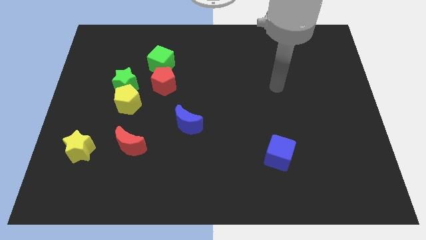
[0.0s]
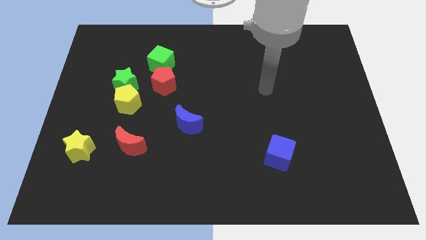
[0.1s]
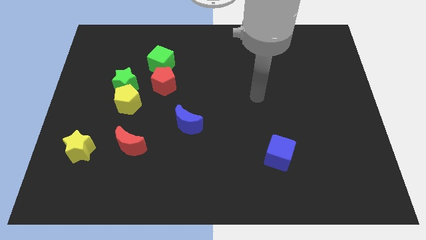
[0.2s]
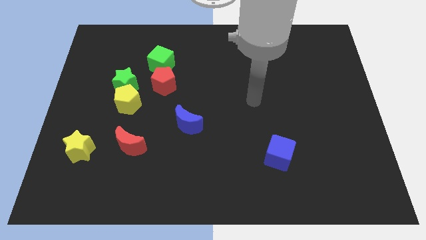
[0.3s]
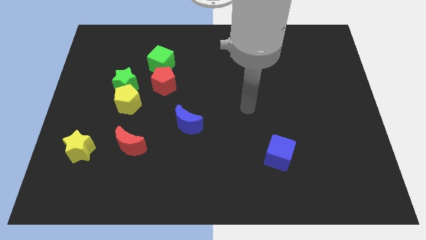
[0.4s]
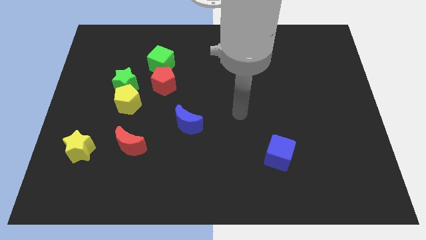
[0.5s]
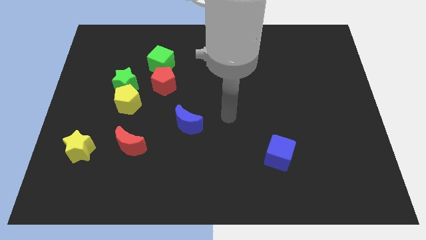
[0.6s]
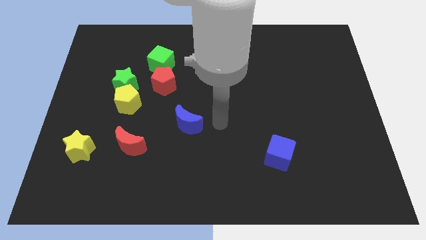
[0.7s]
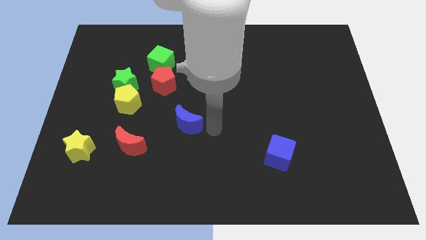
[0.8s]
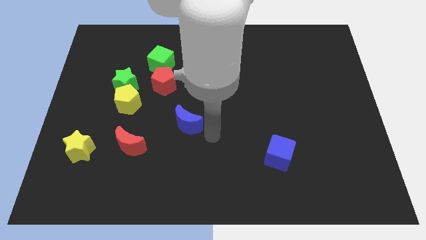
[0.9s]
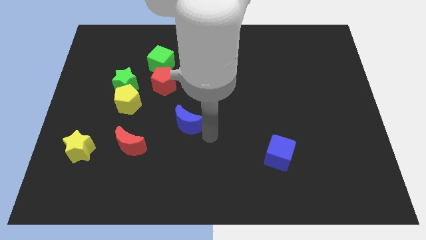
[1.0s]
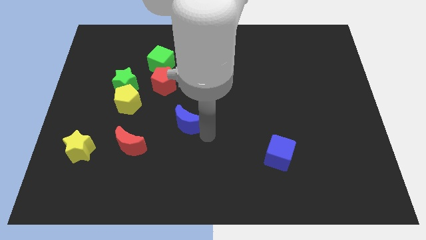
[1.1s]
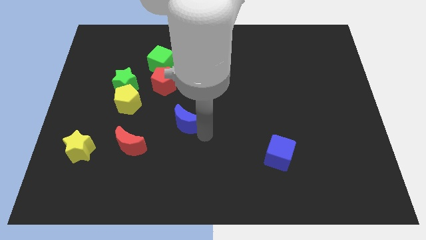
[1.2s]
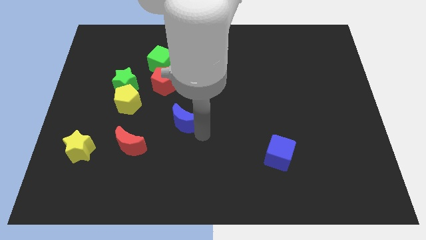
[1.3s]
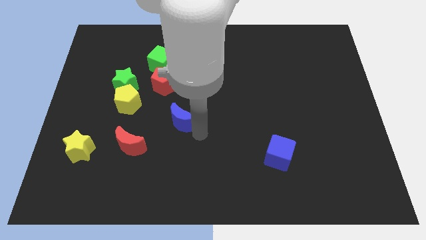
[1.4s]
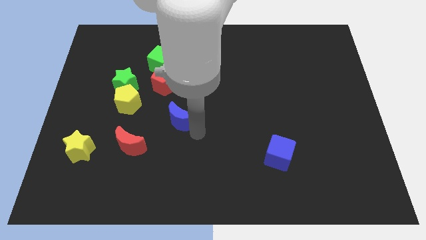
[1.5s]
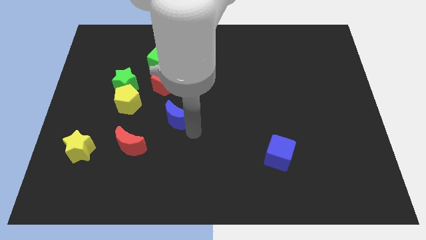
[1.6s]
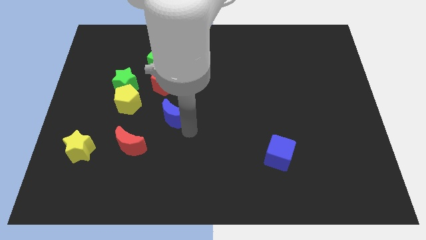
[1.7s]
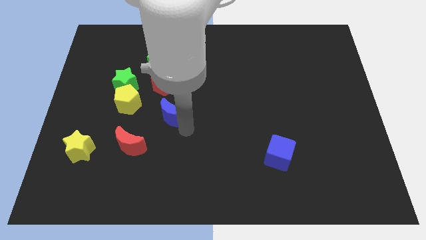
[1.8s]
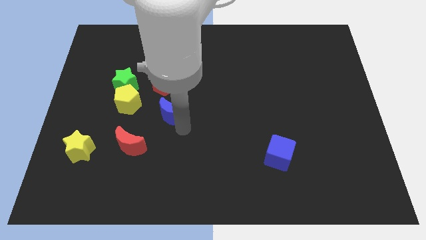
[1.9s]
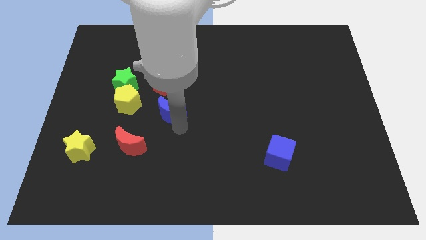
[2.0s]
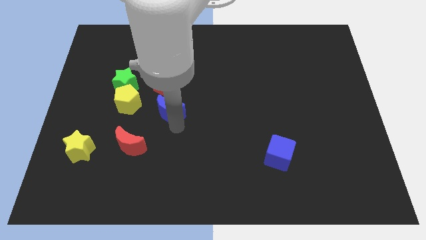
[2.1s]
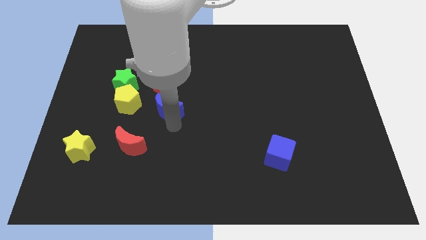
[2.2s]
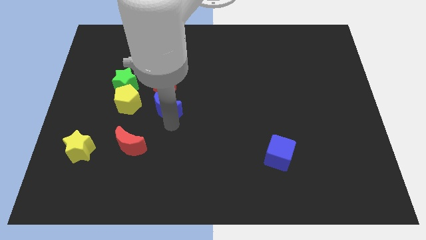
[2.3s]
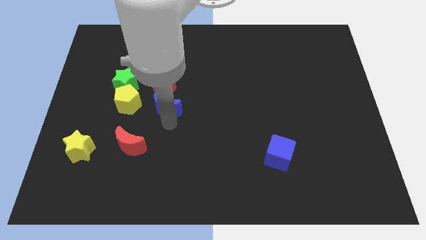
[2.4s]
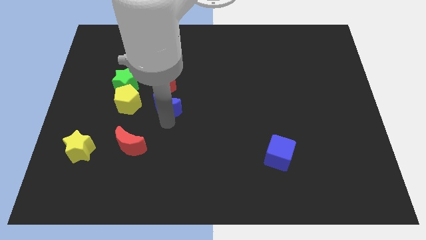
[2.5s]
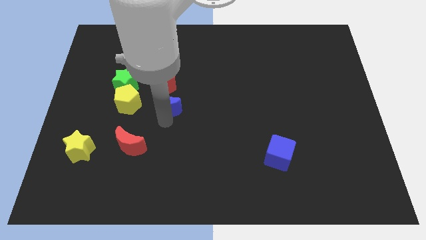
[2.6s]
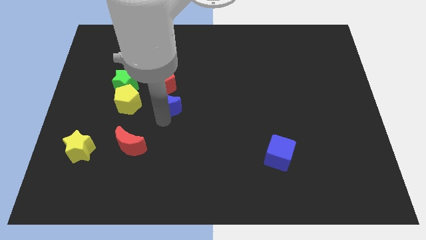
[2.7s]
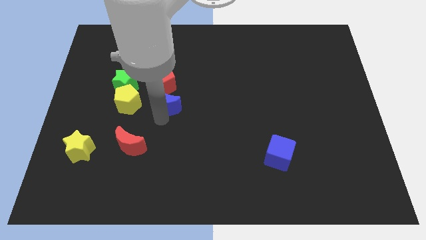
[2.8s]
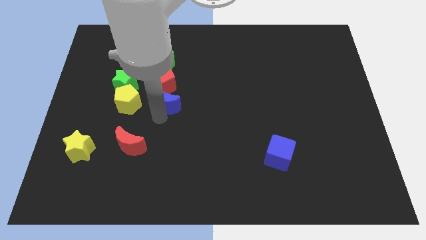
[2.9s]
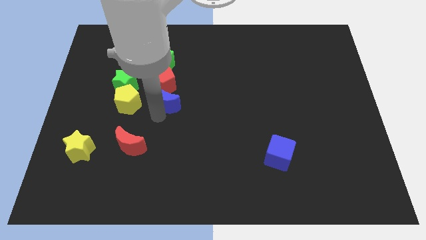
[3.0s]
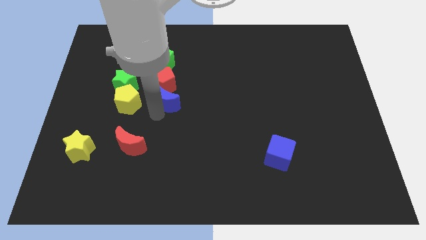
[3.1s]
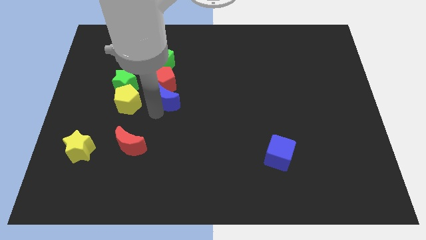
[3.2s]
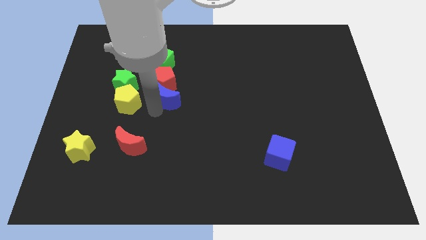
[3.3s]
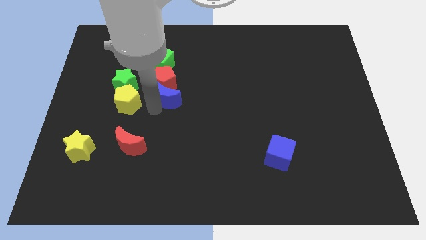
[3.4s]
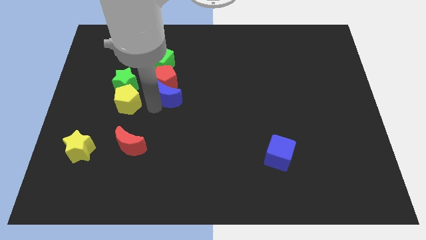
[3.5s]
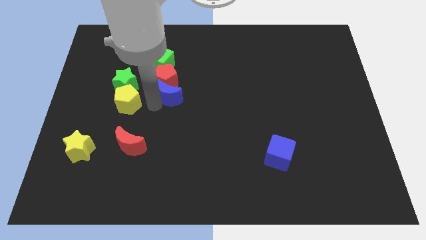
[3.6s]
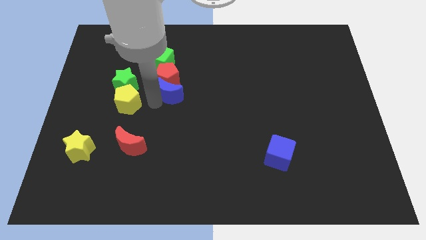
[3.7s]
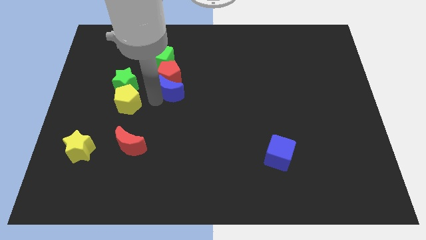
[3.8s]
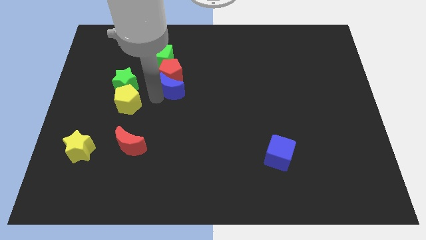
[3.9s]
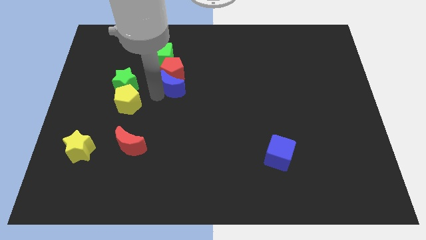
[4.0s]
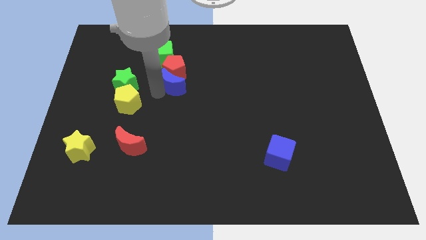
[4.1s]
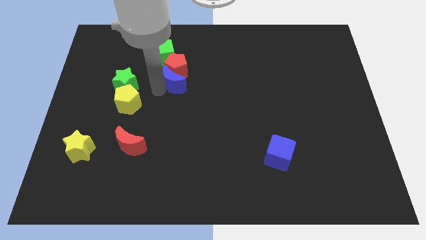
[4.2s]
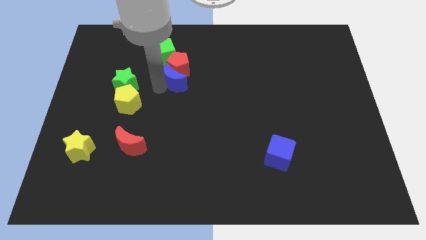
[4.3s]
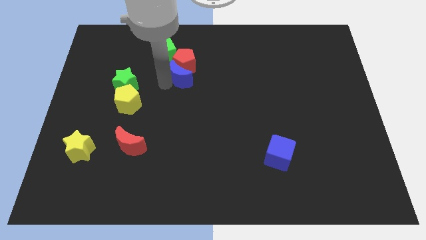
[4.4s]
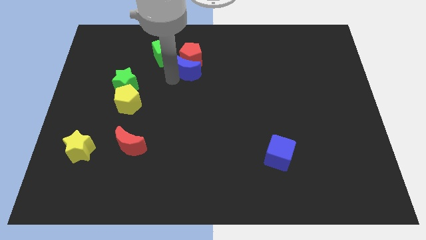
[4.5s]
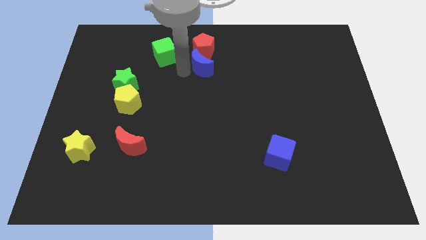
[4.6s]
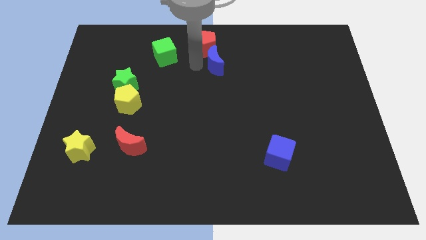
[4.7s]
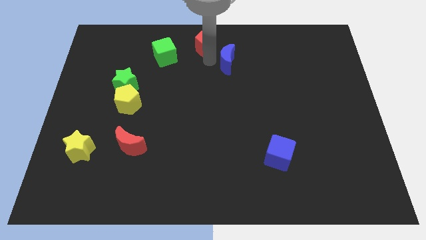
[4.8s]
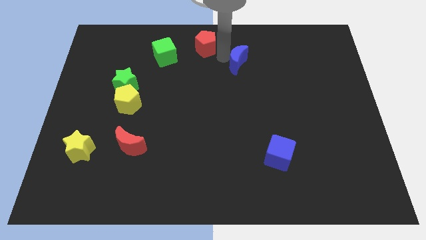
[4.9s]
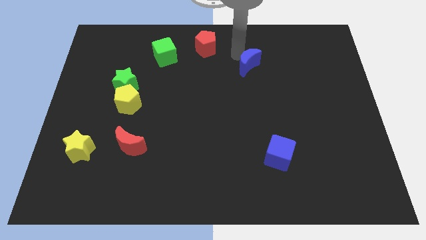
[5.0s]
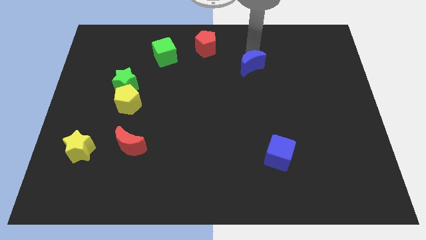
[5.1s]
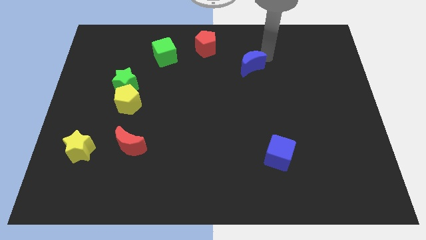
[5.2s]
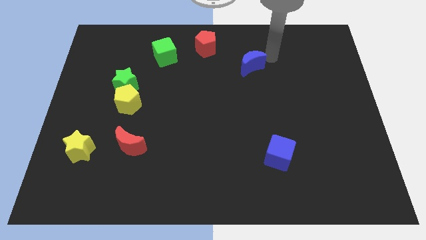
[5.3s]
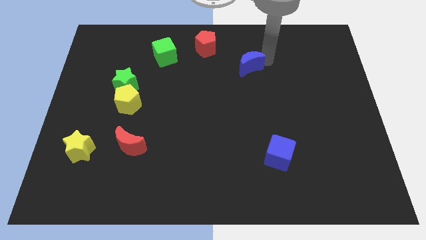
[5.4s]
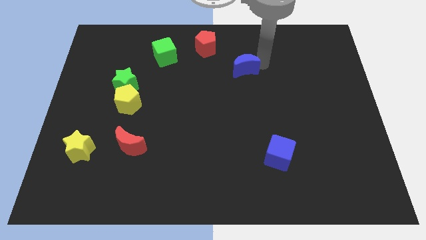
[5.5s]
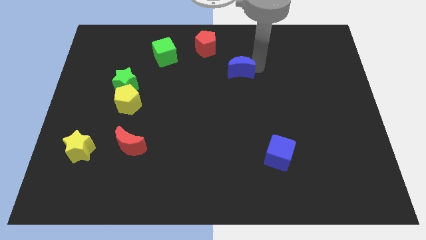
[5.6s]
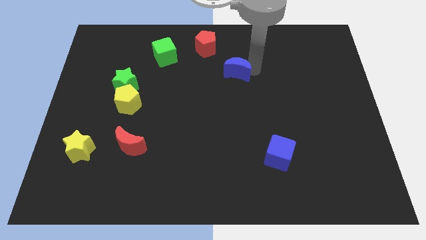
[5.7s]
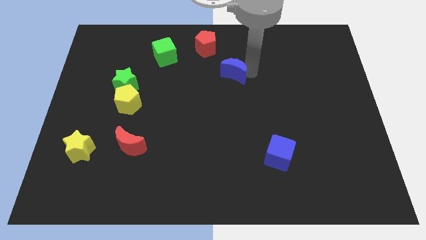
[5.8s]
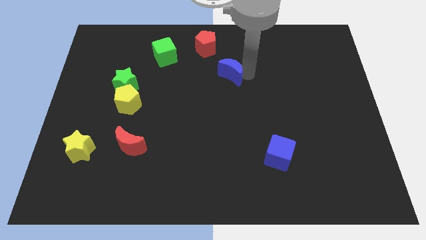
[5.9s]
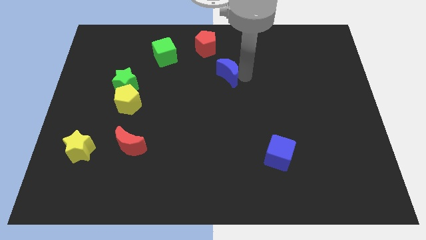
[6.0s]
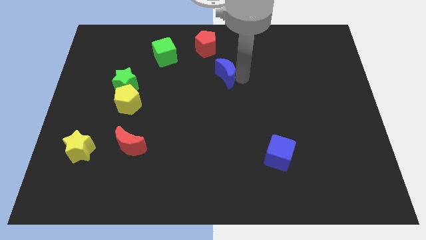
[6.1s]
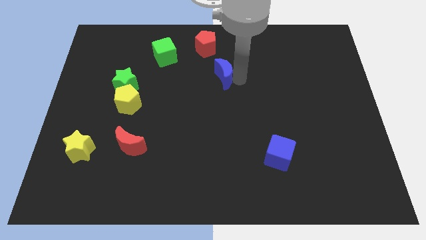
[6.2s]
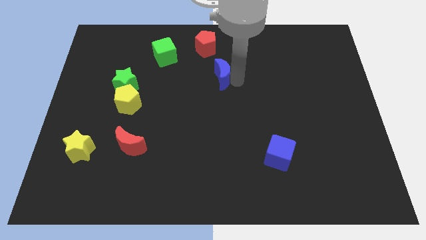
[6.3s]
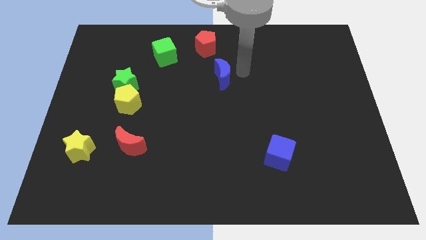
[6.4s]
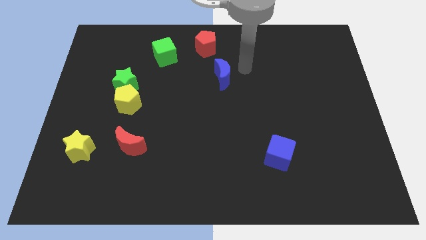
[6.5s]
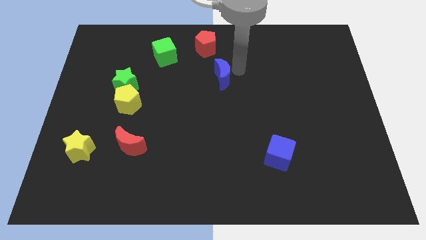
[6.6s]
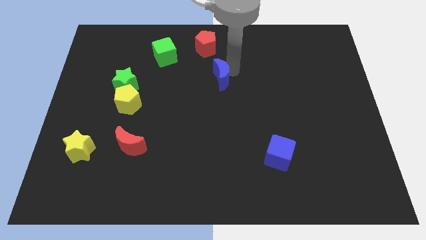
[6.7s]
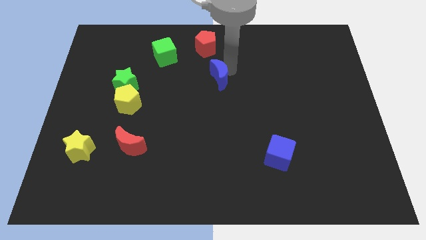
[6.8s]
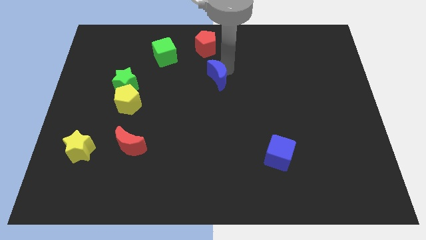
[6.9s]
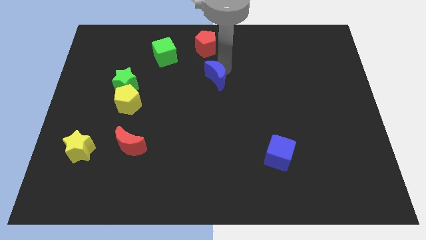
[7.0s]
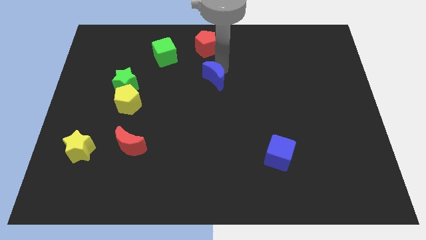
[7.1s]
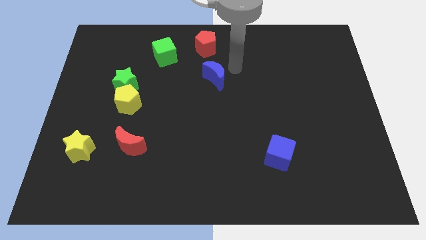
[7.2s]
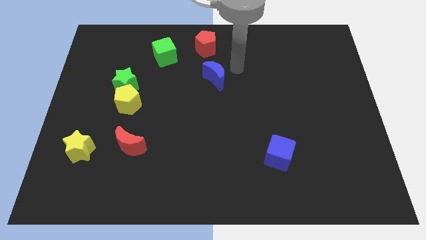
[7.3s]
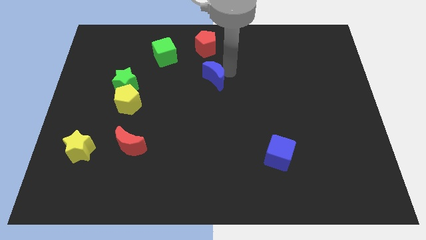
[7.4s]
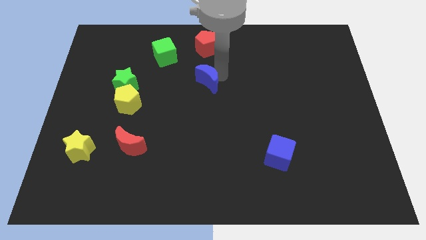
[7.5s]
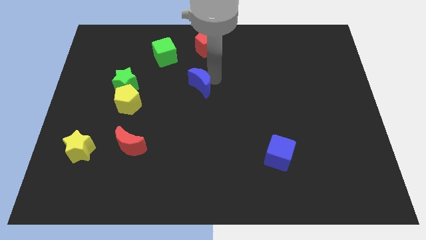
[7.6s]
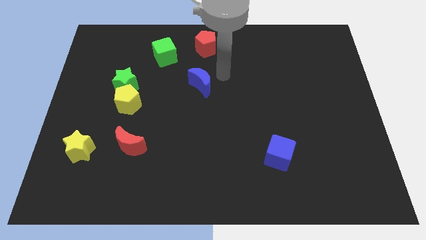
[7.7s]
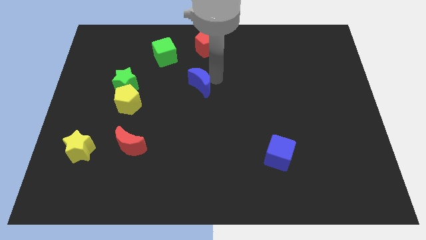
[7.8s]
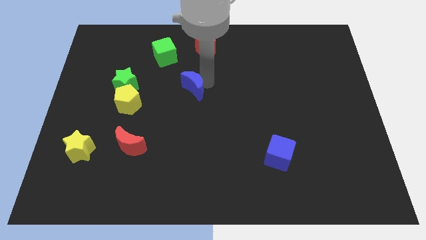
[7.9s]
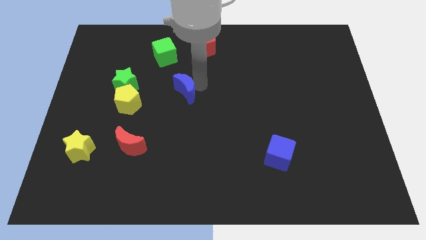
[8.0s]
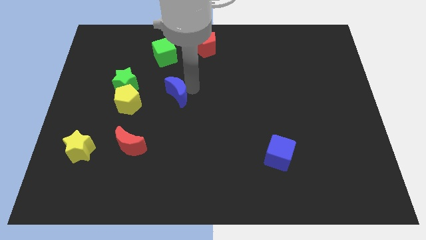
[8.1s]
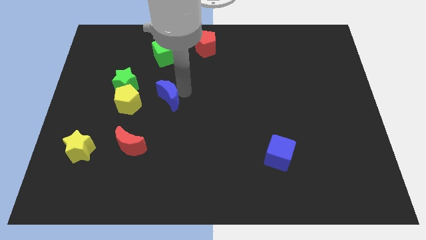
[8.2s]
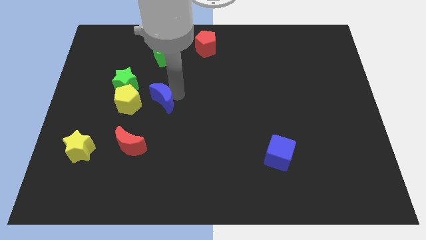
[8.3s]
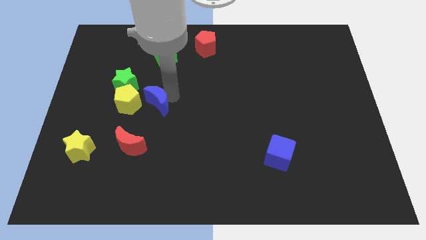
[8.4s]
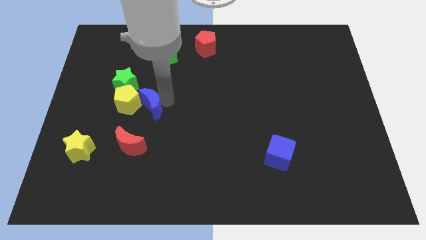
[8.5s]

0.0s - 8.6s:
slide the blue moon close to the yellow pentagon
